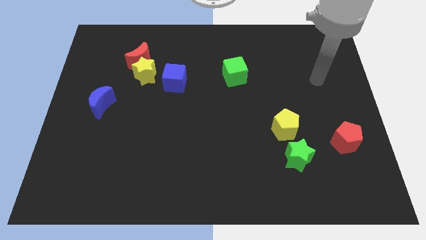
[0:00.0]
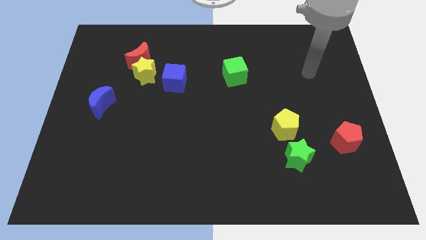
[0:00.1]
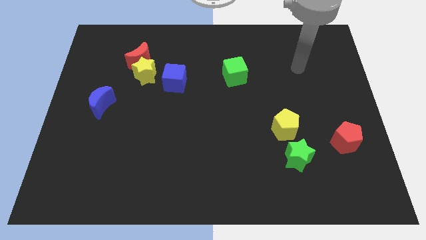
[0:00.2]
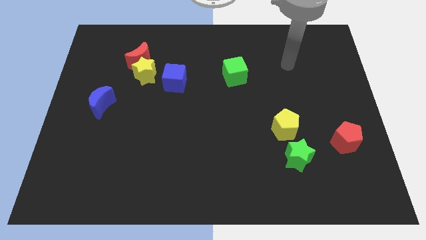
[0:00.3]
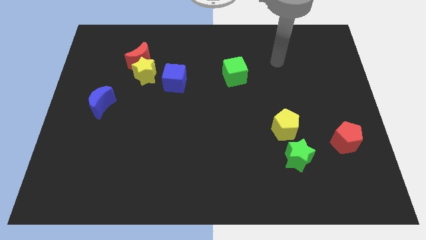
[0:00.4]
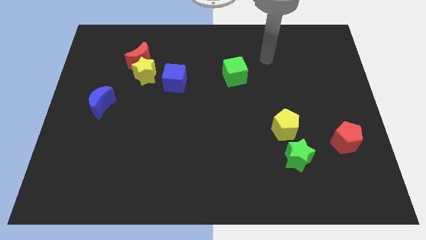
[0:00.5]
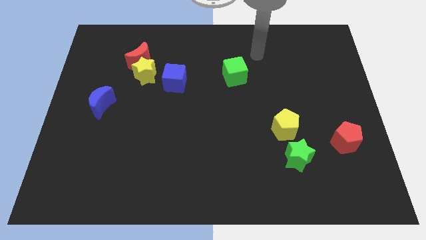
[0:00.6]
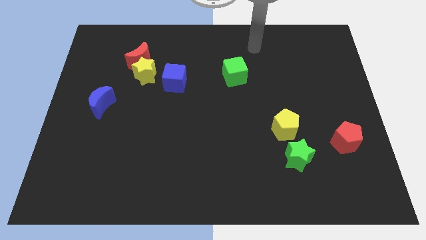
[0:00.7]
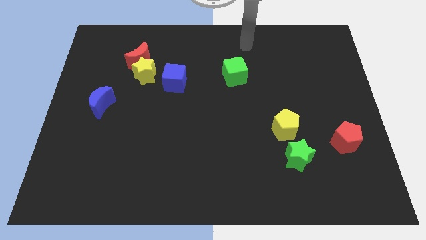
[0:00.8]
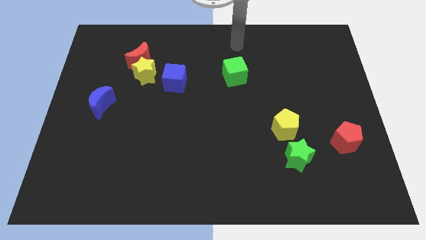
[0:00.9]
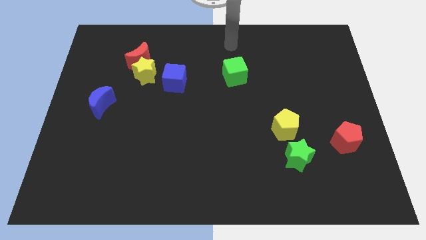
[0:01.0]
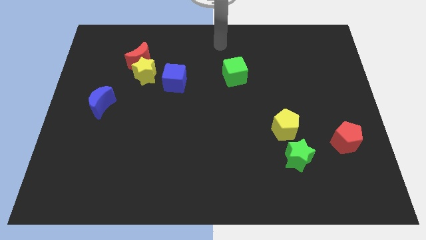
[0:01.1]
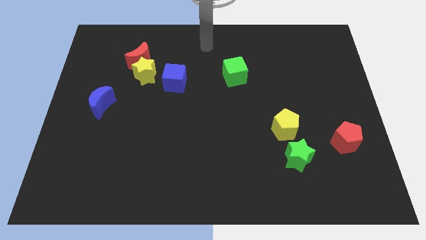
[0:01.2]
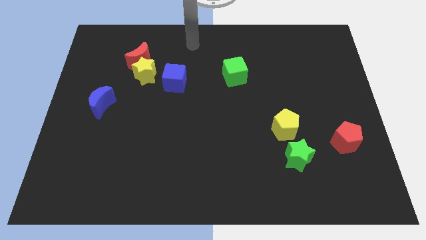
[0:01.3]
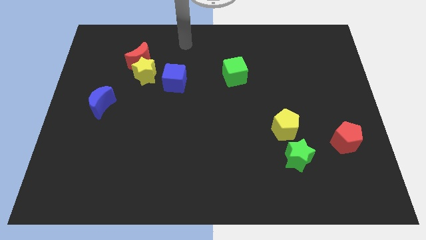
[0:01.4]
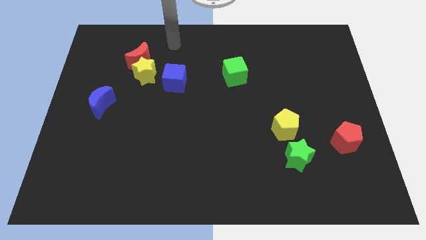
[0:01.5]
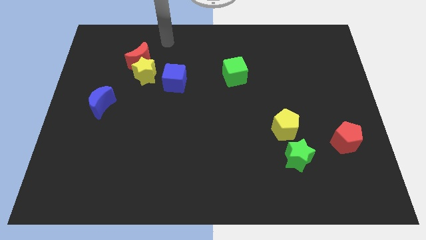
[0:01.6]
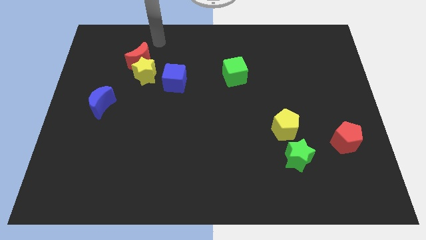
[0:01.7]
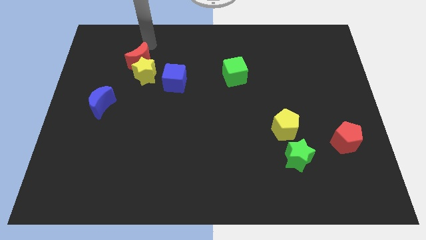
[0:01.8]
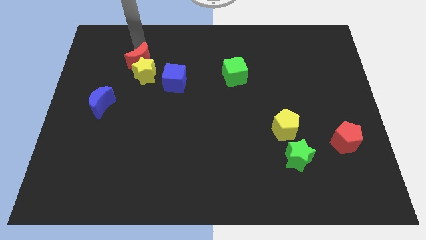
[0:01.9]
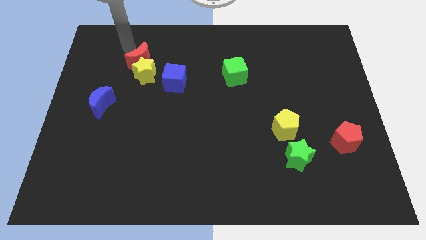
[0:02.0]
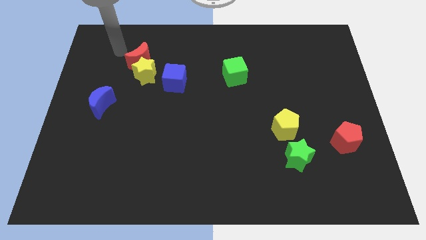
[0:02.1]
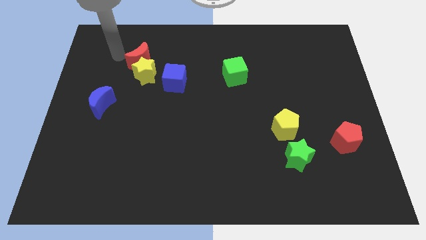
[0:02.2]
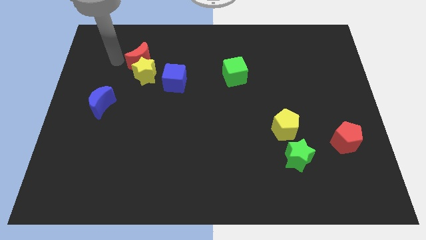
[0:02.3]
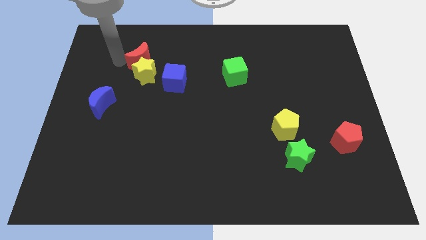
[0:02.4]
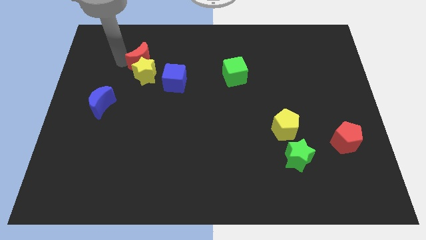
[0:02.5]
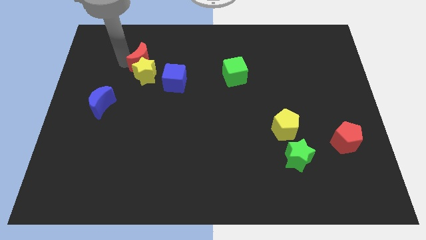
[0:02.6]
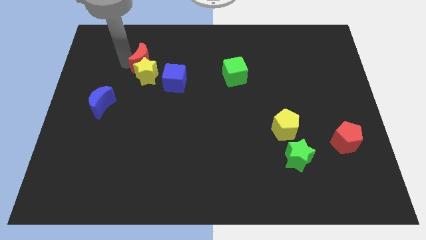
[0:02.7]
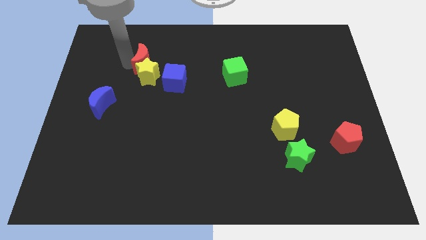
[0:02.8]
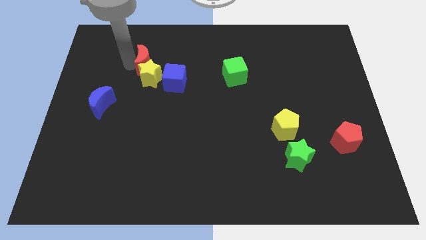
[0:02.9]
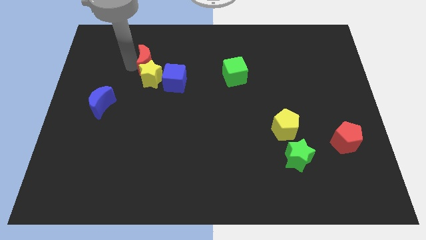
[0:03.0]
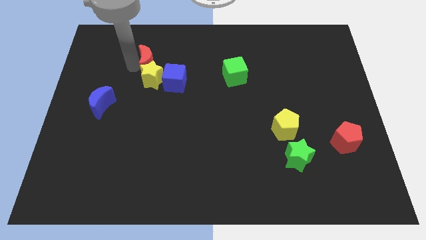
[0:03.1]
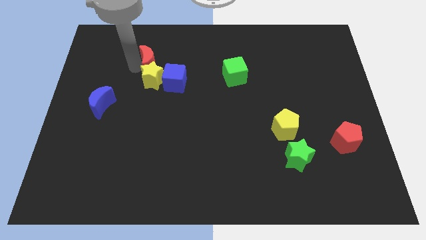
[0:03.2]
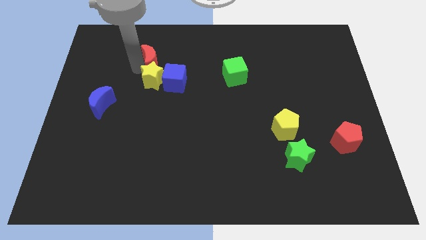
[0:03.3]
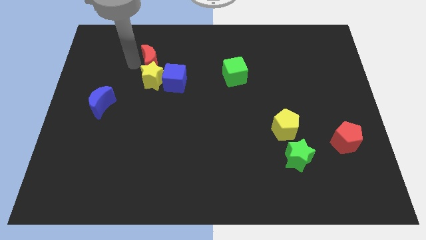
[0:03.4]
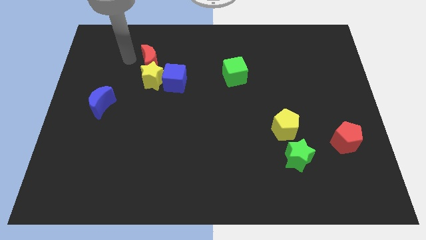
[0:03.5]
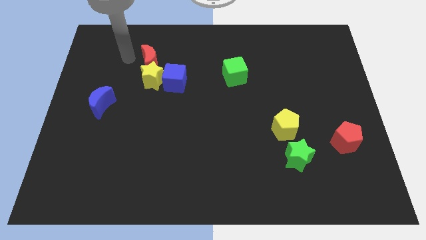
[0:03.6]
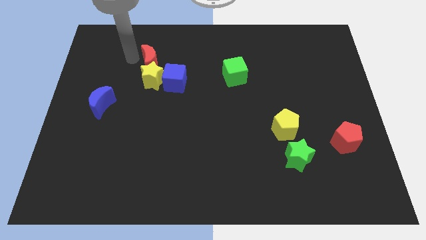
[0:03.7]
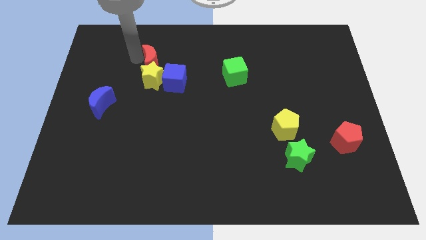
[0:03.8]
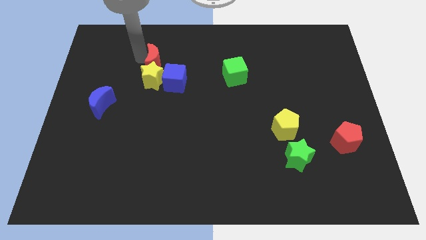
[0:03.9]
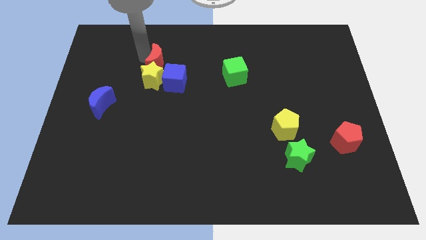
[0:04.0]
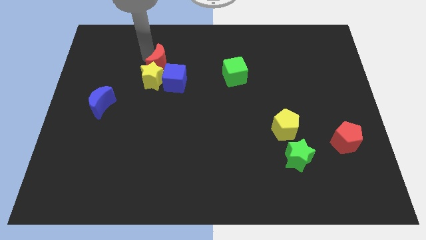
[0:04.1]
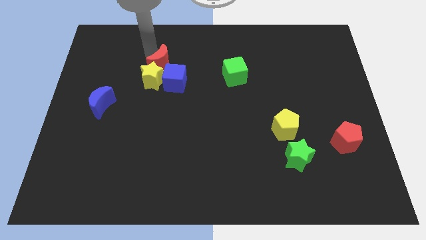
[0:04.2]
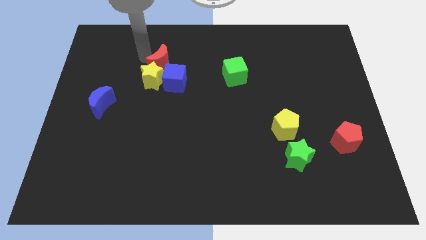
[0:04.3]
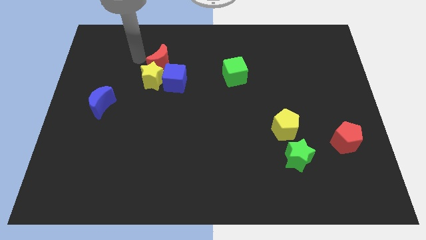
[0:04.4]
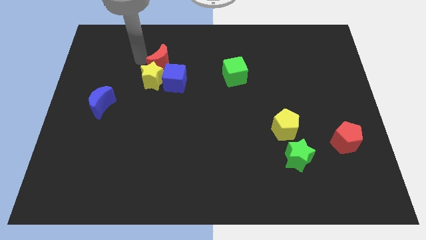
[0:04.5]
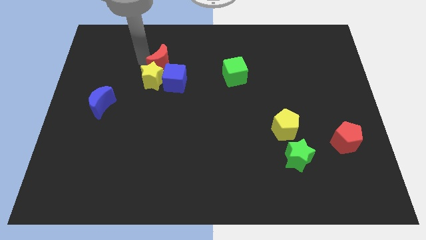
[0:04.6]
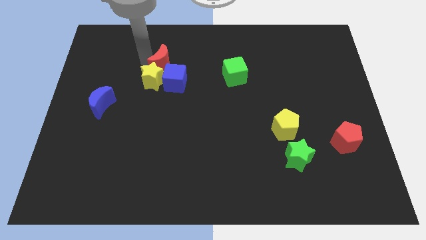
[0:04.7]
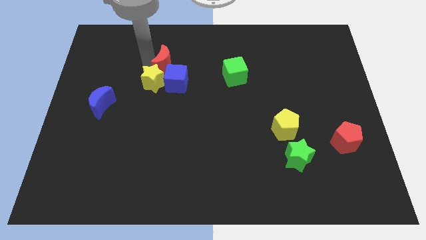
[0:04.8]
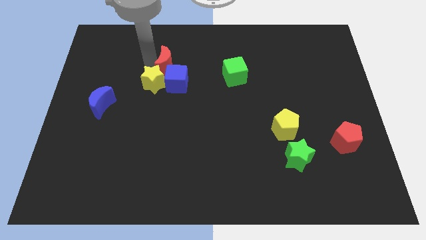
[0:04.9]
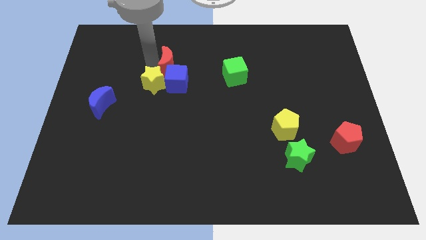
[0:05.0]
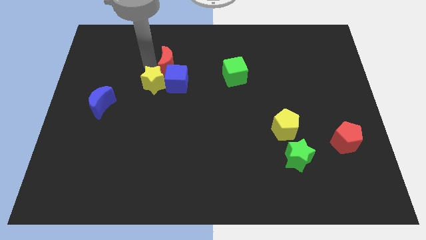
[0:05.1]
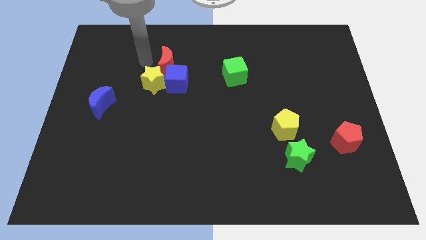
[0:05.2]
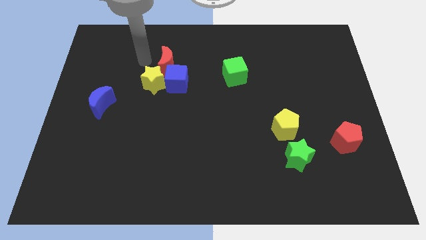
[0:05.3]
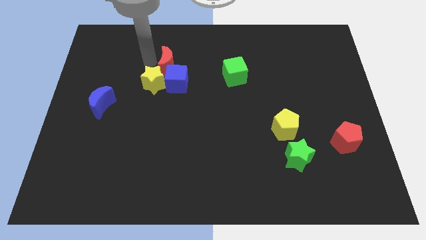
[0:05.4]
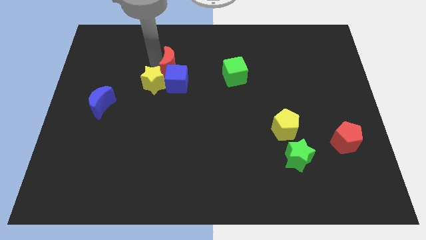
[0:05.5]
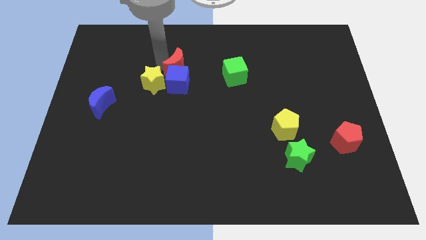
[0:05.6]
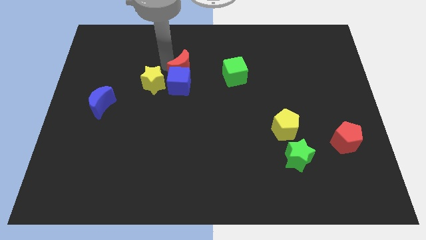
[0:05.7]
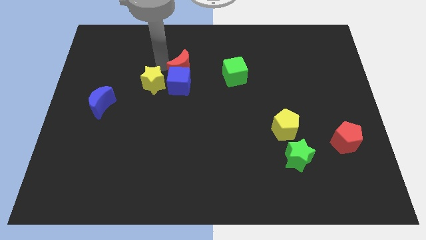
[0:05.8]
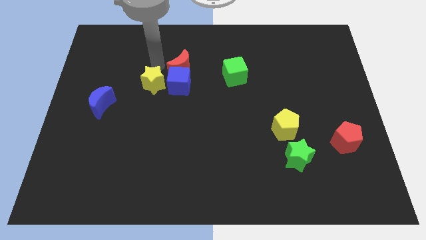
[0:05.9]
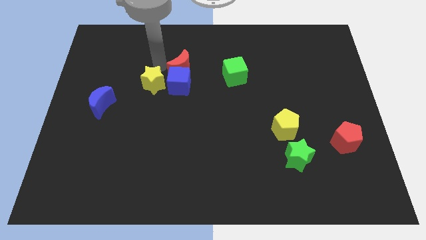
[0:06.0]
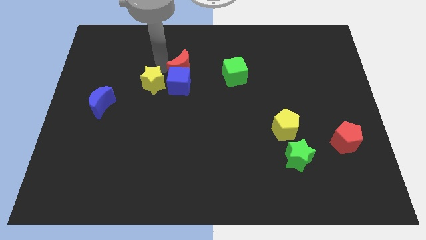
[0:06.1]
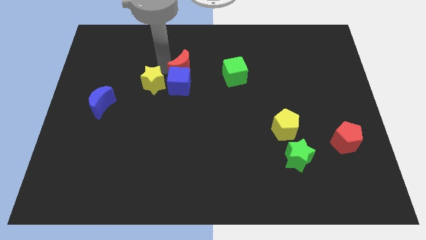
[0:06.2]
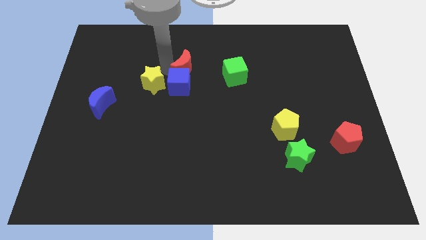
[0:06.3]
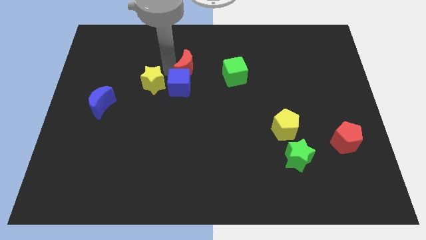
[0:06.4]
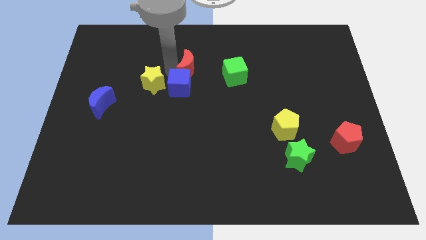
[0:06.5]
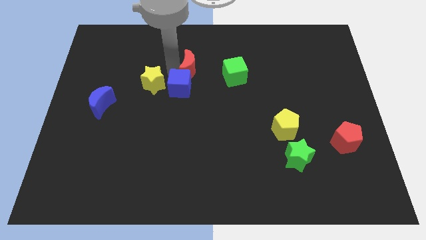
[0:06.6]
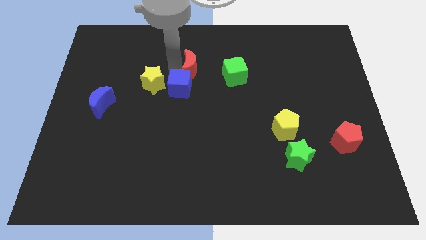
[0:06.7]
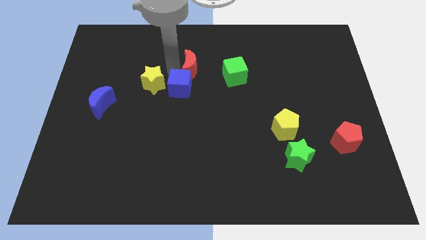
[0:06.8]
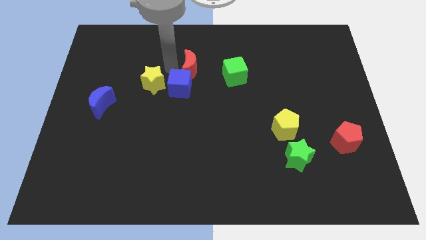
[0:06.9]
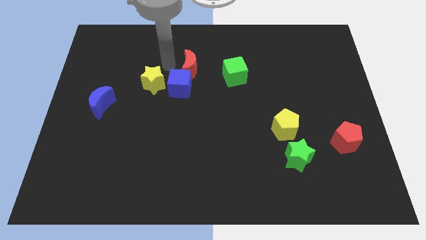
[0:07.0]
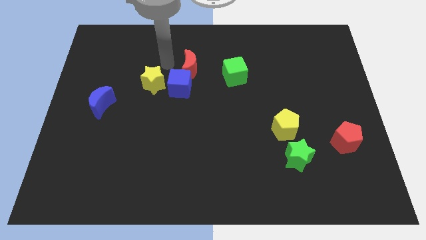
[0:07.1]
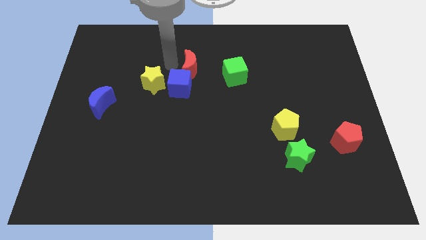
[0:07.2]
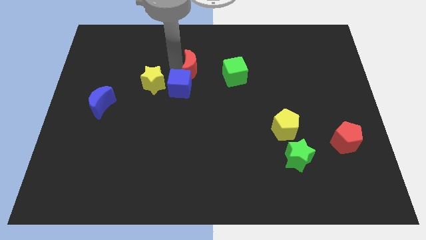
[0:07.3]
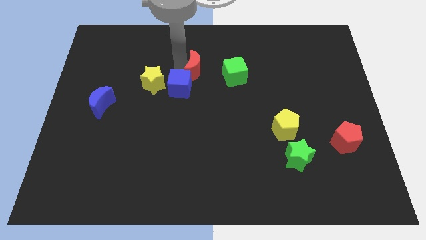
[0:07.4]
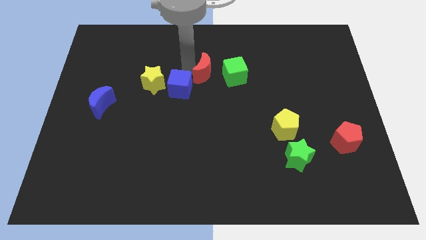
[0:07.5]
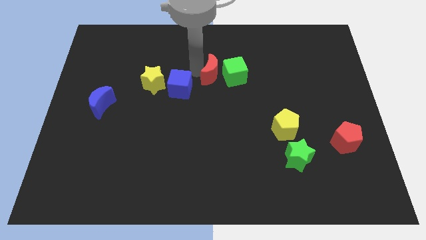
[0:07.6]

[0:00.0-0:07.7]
slide the red moon towards the green cube
